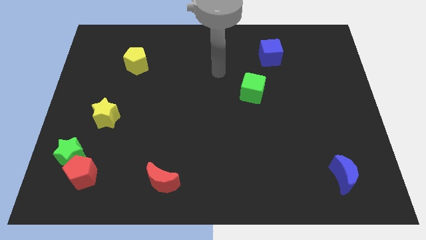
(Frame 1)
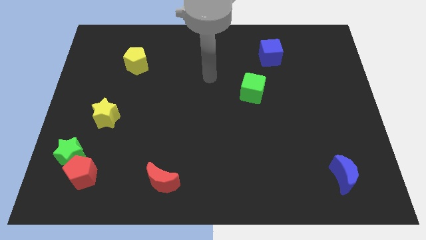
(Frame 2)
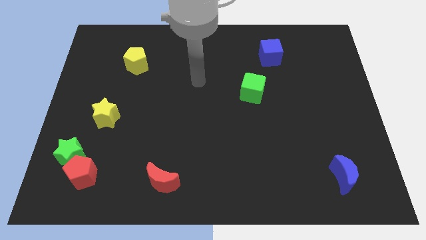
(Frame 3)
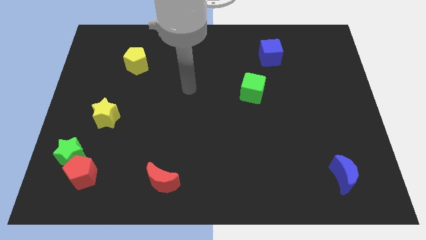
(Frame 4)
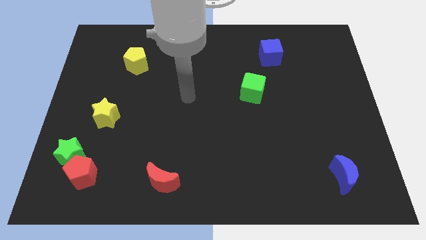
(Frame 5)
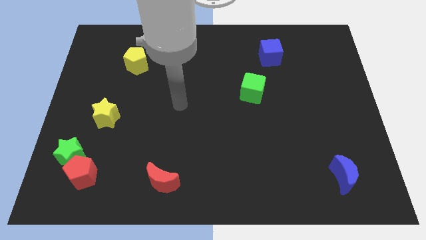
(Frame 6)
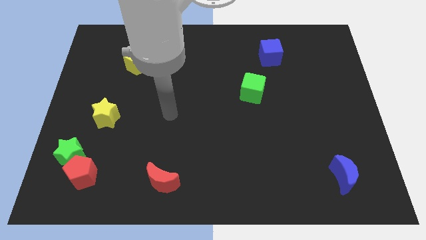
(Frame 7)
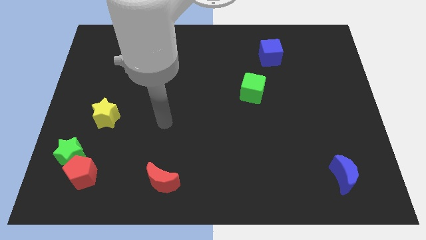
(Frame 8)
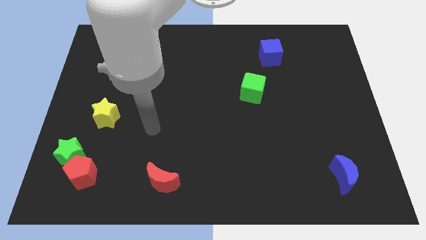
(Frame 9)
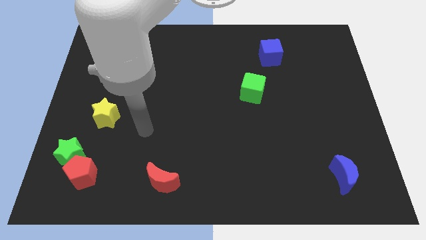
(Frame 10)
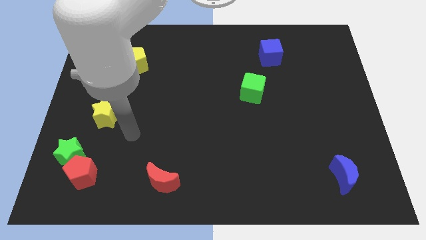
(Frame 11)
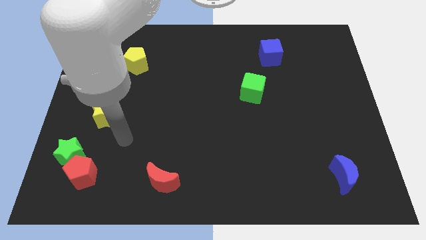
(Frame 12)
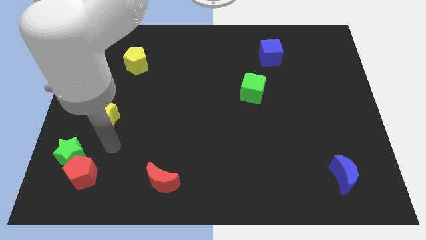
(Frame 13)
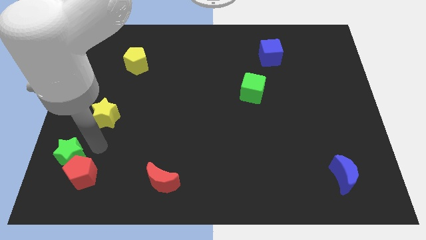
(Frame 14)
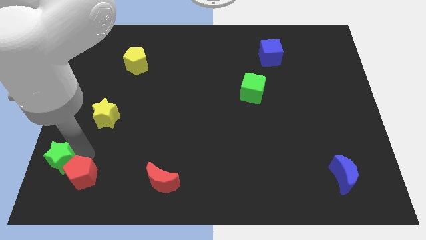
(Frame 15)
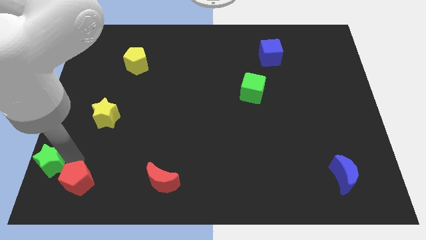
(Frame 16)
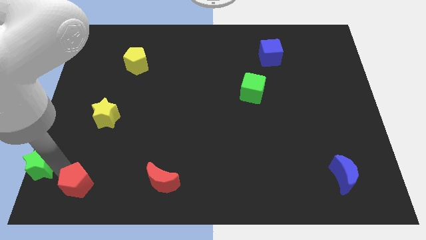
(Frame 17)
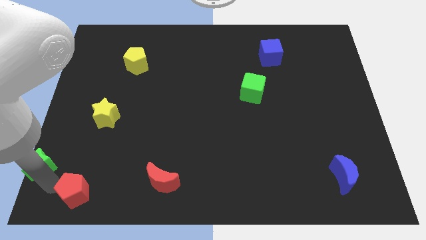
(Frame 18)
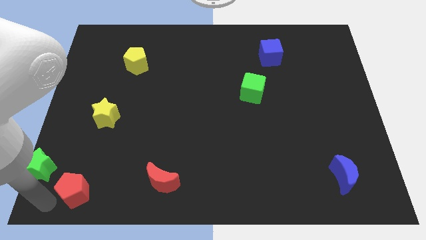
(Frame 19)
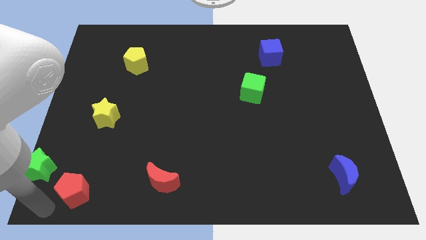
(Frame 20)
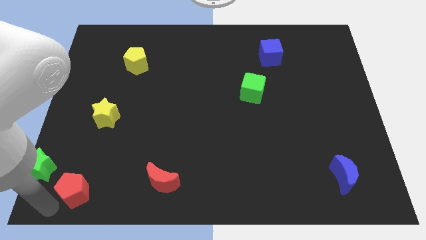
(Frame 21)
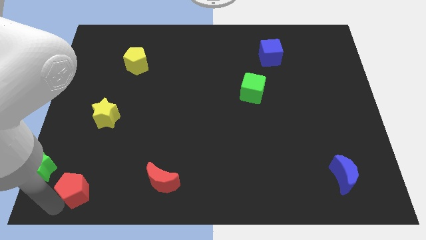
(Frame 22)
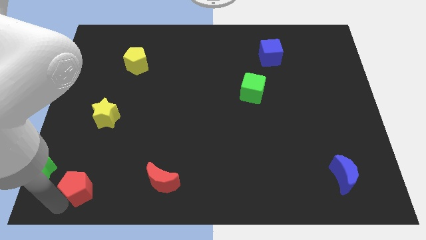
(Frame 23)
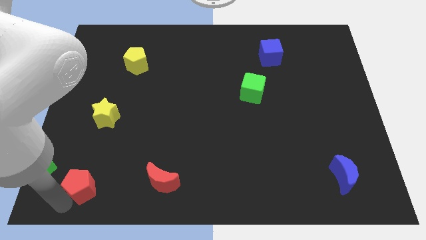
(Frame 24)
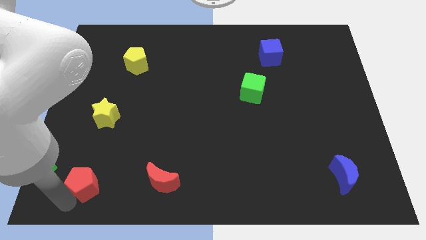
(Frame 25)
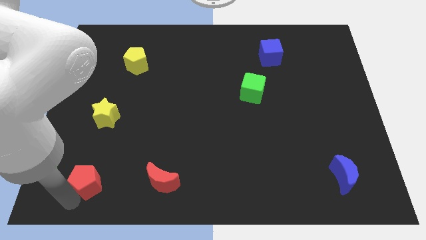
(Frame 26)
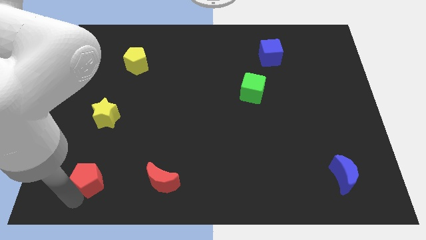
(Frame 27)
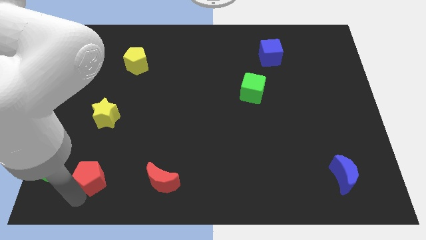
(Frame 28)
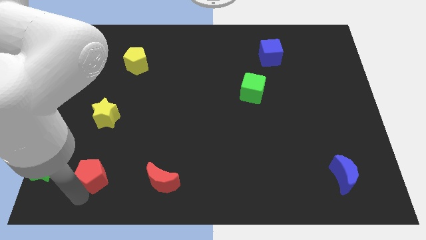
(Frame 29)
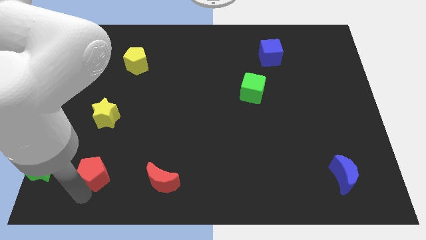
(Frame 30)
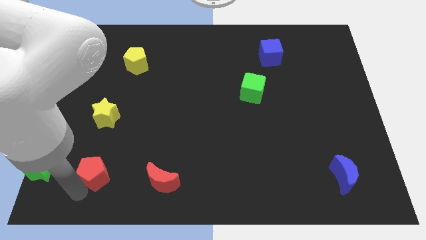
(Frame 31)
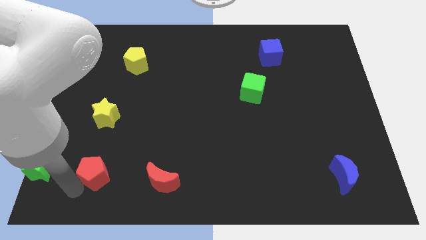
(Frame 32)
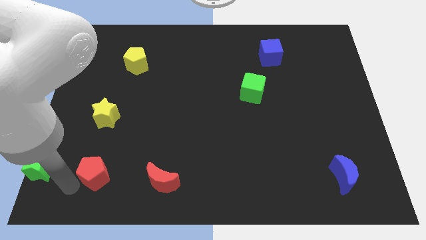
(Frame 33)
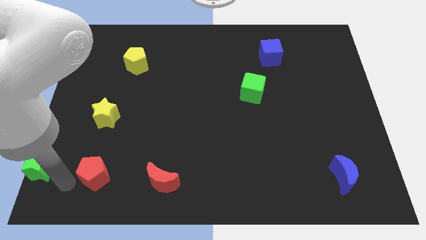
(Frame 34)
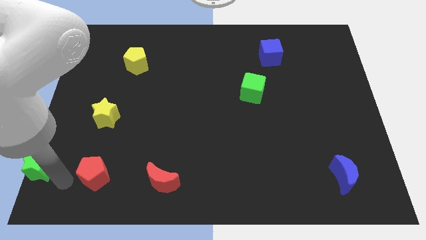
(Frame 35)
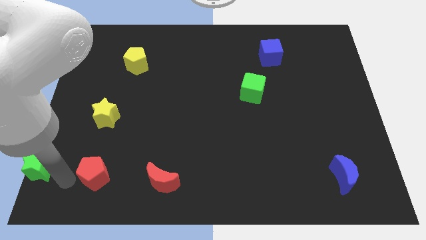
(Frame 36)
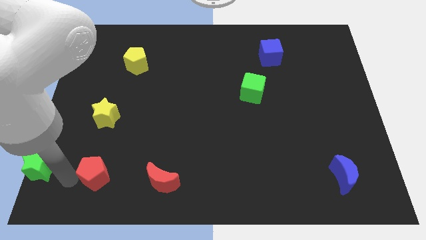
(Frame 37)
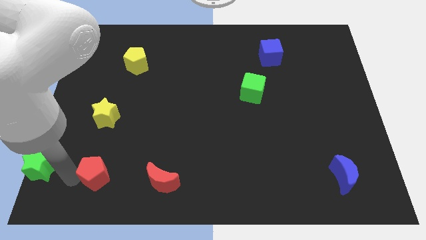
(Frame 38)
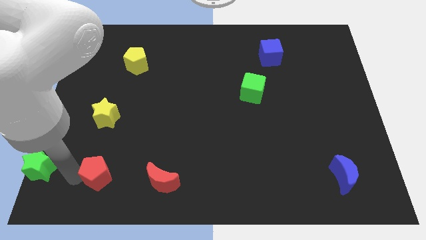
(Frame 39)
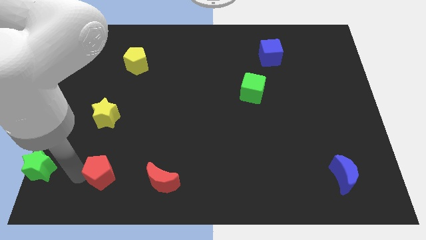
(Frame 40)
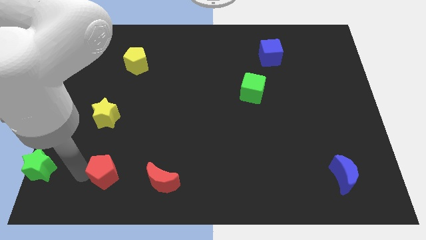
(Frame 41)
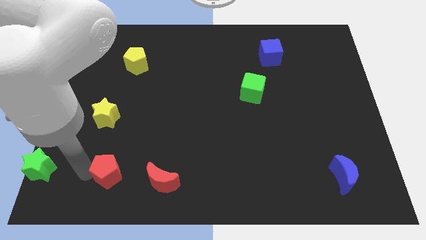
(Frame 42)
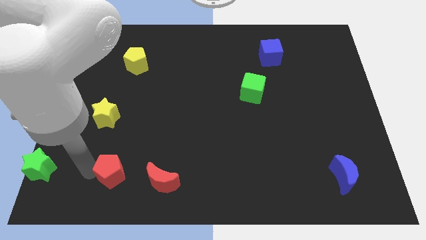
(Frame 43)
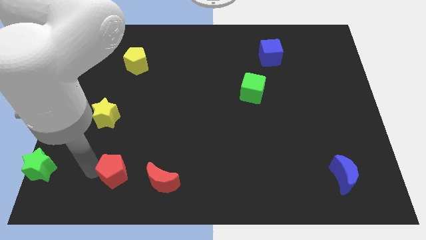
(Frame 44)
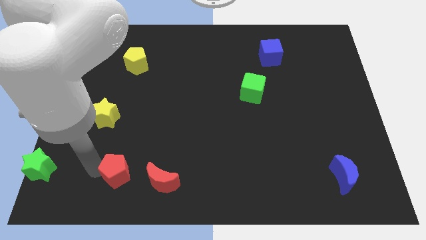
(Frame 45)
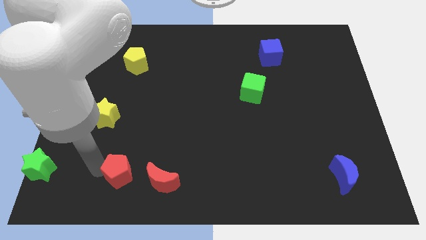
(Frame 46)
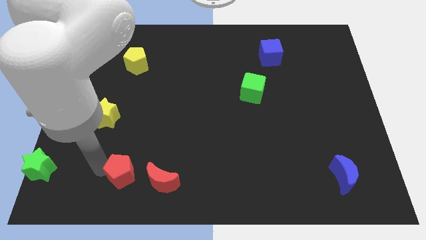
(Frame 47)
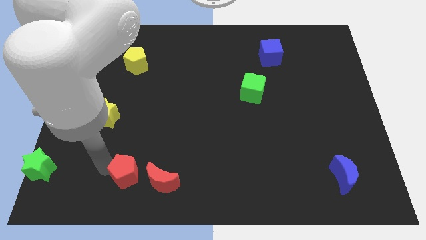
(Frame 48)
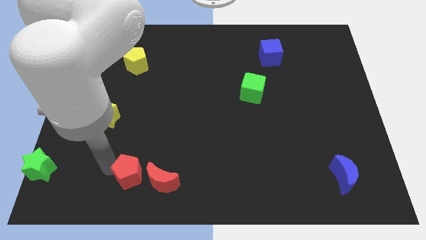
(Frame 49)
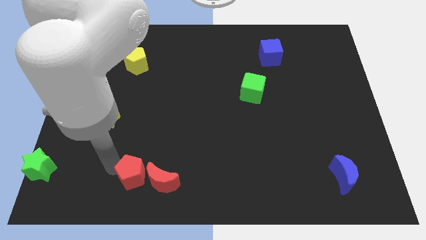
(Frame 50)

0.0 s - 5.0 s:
push the red pentagon close to the red moon

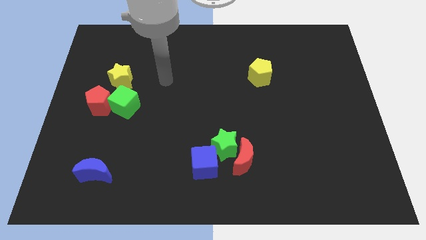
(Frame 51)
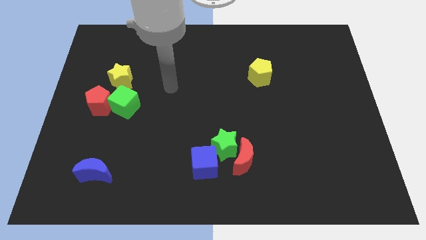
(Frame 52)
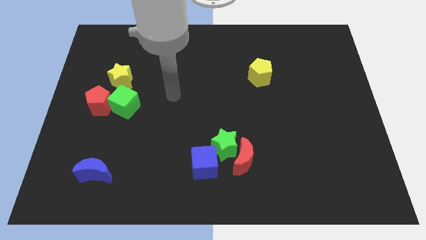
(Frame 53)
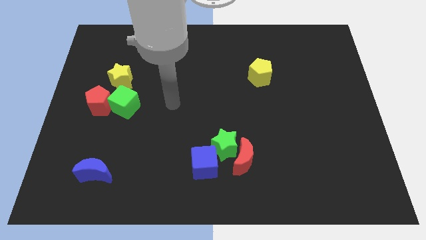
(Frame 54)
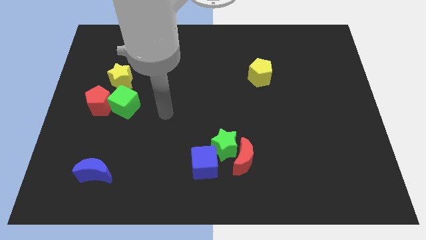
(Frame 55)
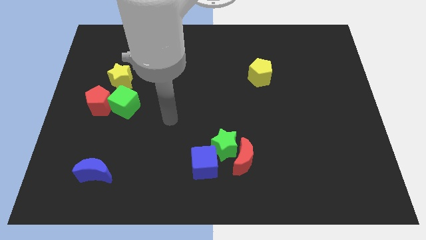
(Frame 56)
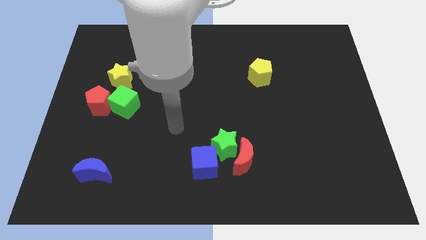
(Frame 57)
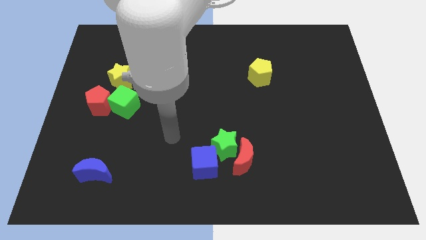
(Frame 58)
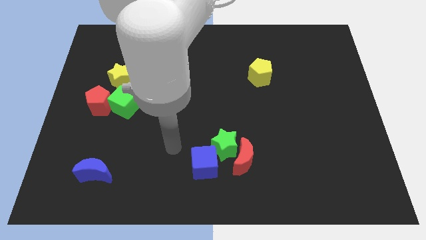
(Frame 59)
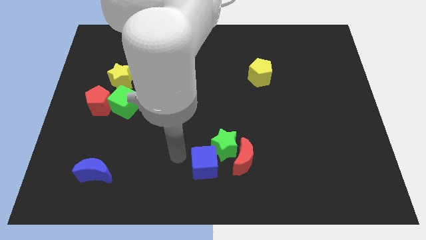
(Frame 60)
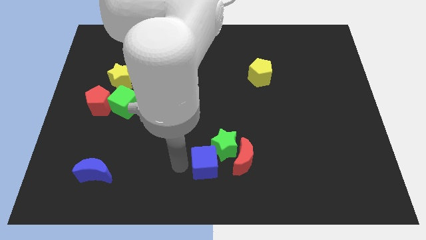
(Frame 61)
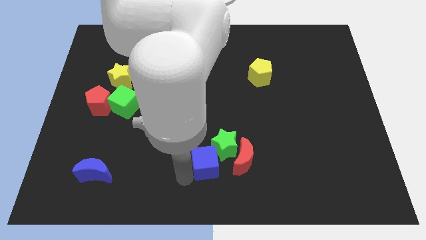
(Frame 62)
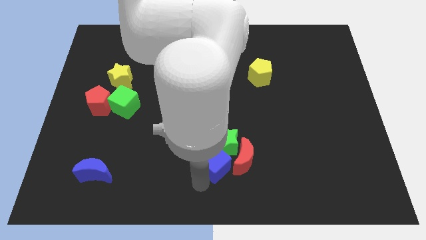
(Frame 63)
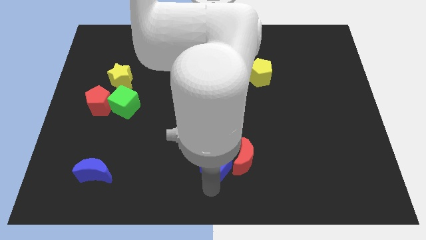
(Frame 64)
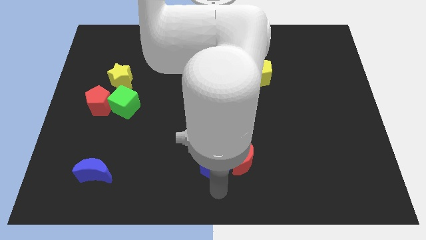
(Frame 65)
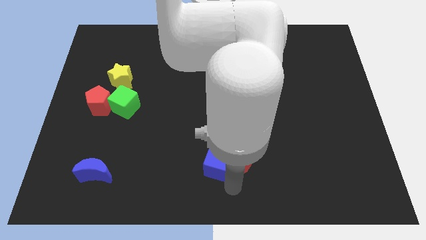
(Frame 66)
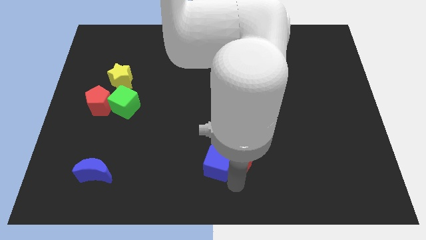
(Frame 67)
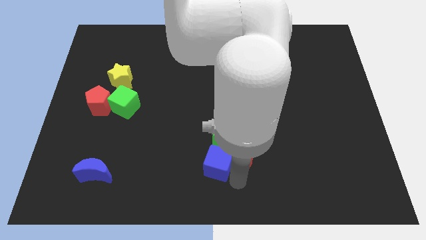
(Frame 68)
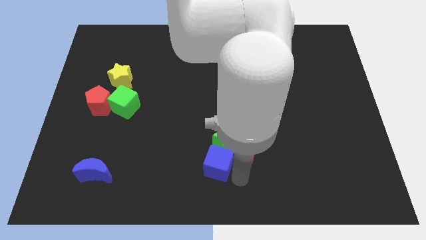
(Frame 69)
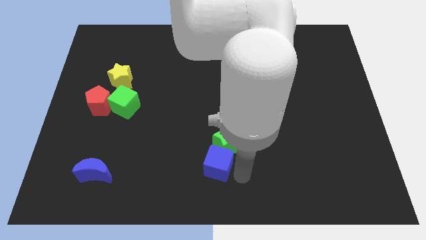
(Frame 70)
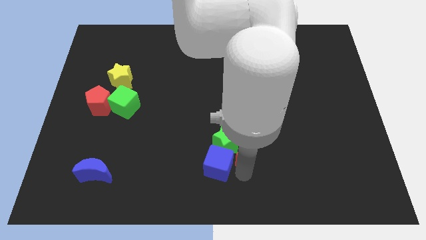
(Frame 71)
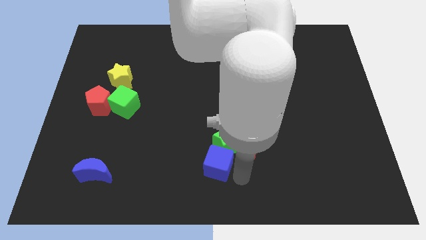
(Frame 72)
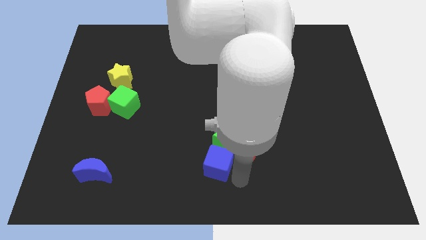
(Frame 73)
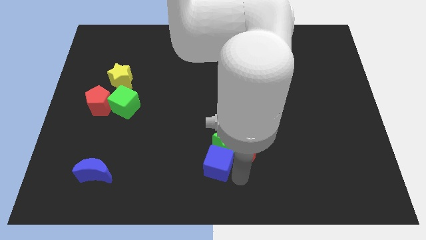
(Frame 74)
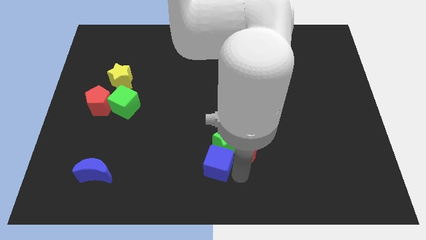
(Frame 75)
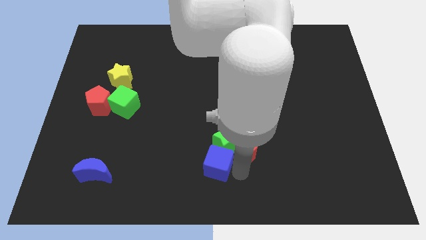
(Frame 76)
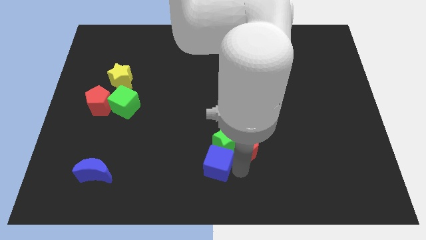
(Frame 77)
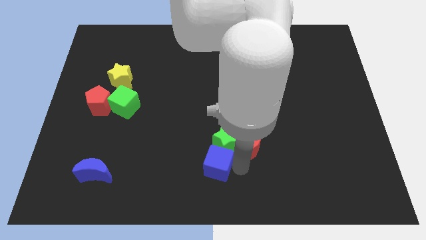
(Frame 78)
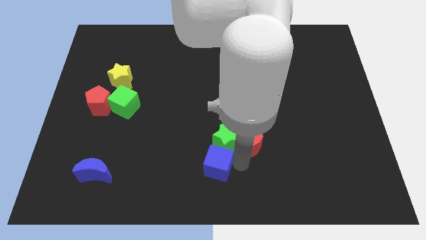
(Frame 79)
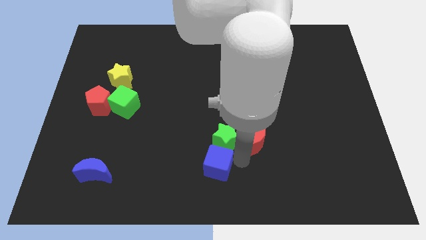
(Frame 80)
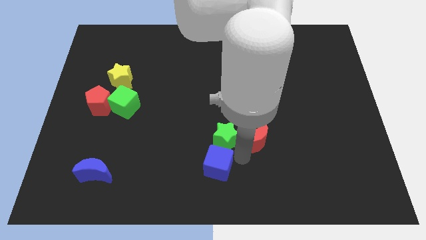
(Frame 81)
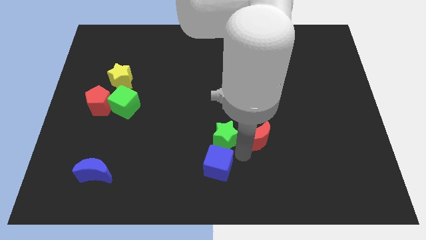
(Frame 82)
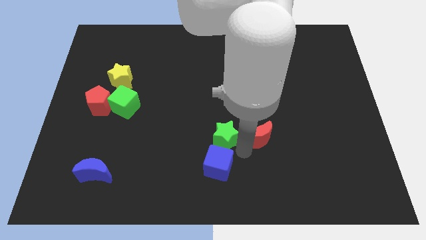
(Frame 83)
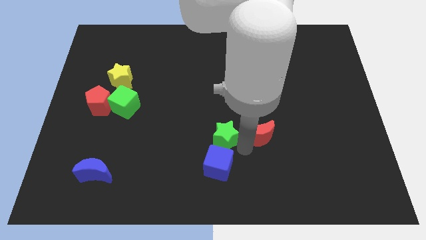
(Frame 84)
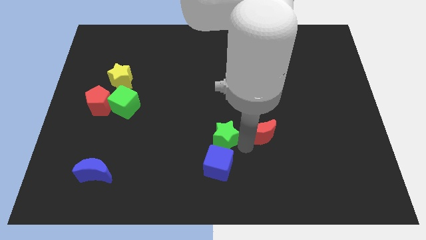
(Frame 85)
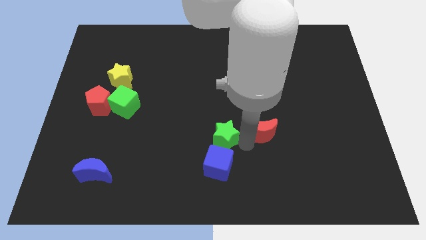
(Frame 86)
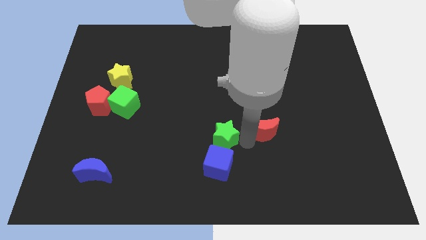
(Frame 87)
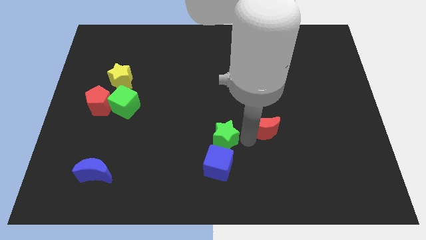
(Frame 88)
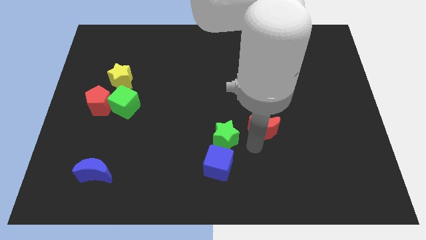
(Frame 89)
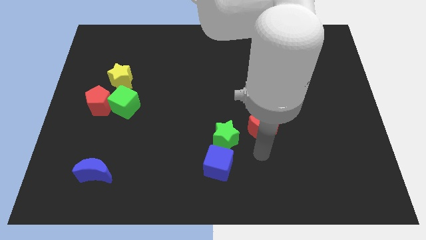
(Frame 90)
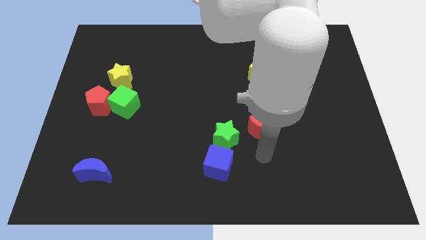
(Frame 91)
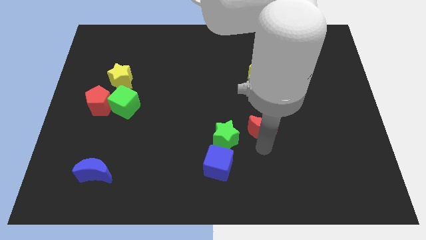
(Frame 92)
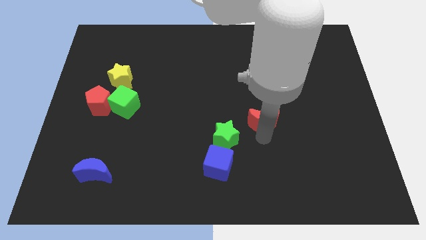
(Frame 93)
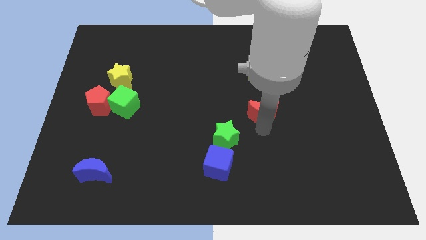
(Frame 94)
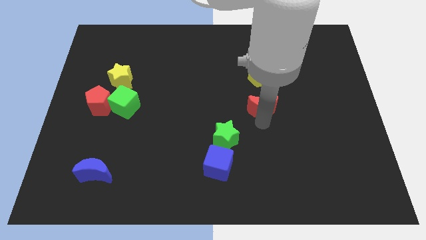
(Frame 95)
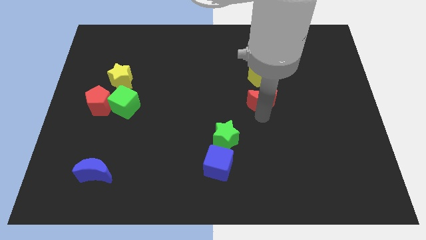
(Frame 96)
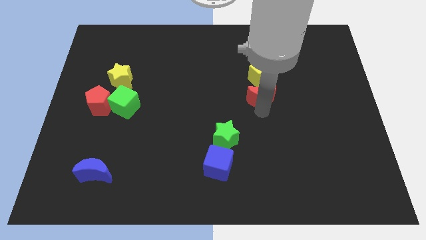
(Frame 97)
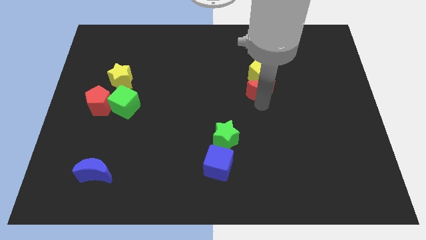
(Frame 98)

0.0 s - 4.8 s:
slide the red moon next to the yellow pentagon
